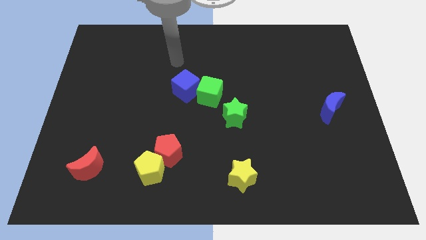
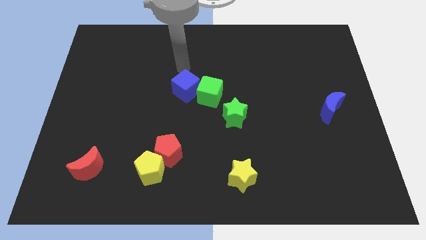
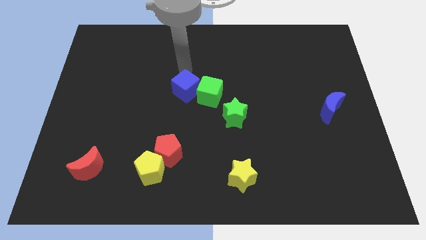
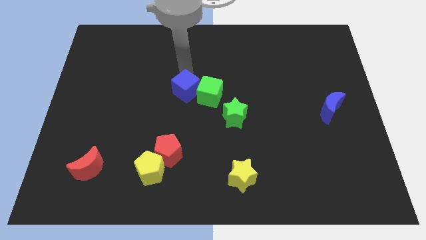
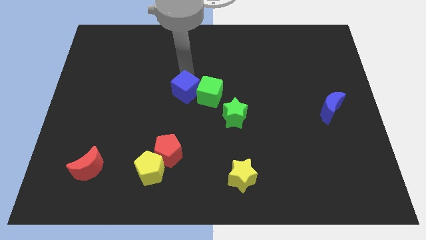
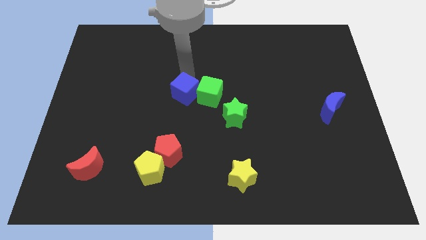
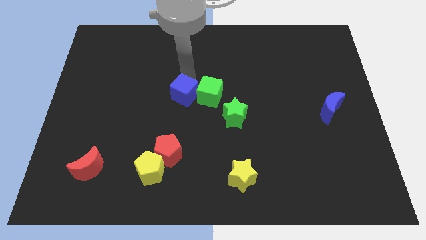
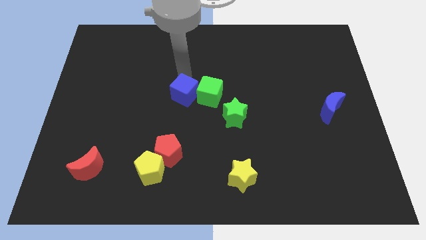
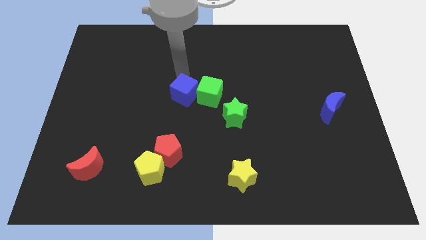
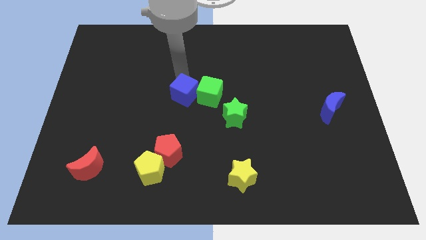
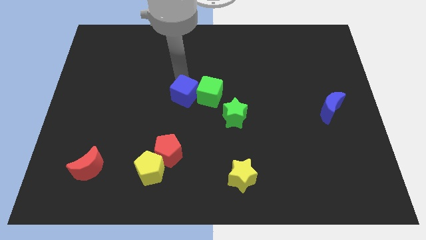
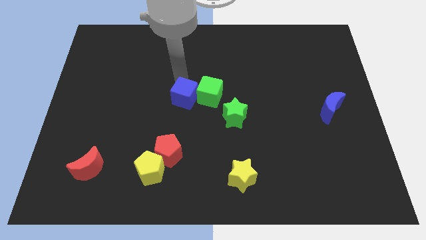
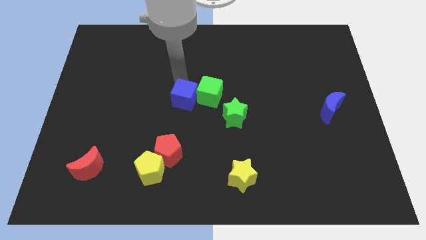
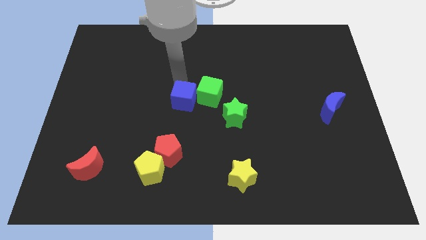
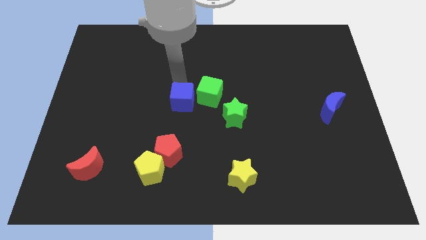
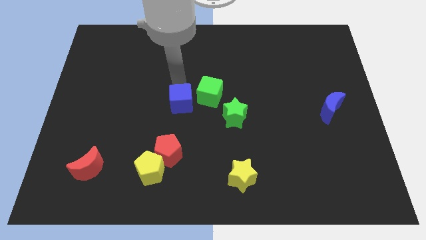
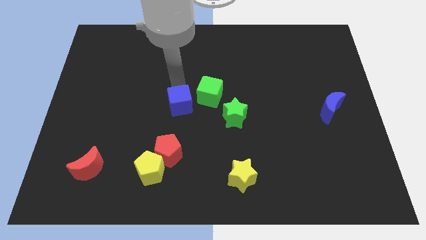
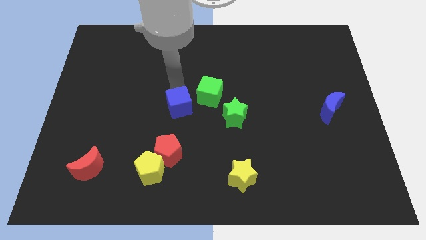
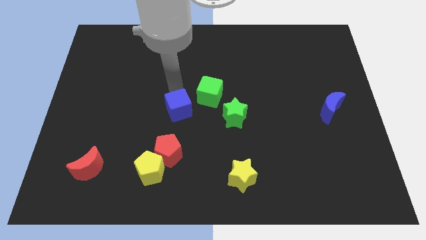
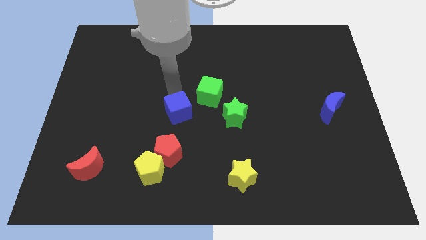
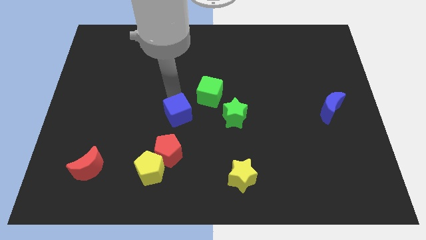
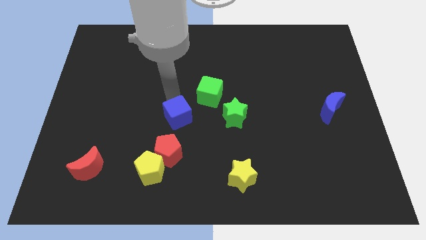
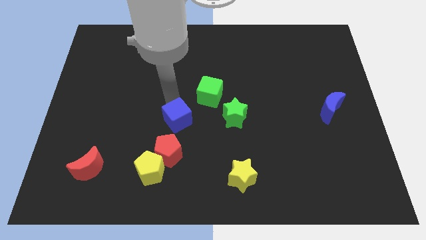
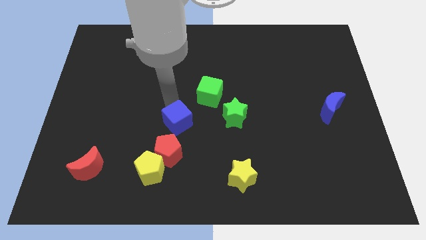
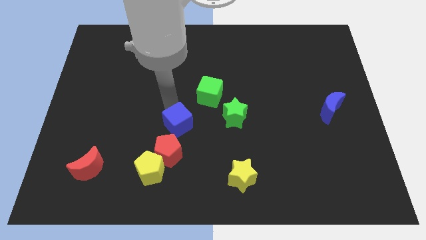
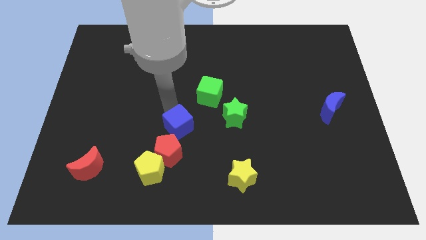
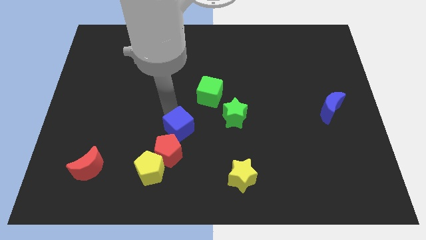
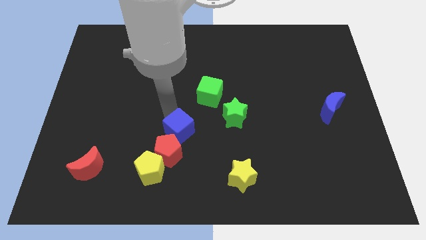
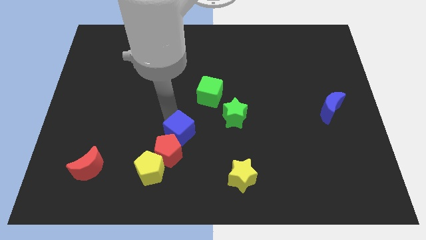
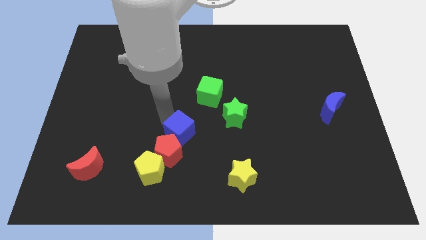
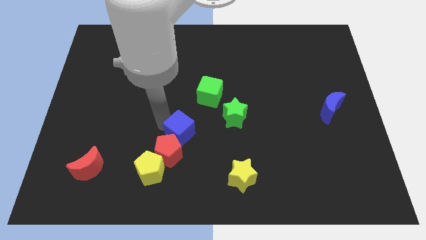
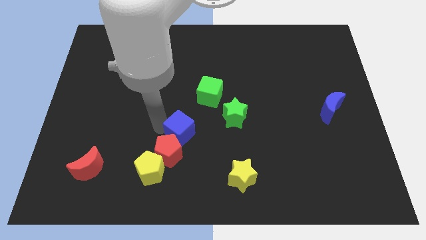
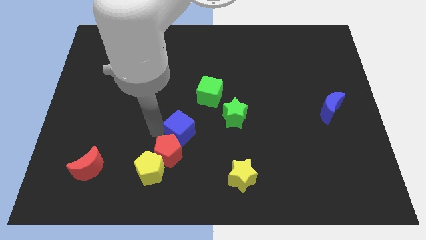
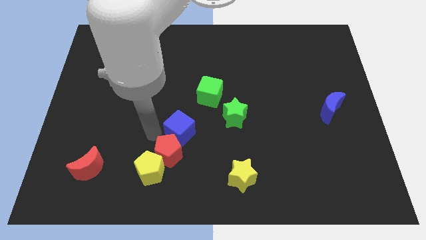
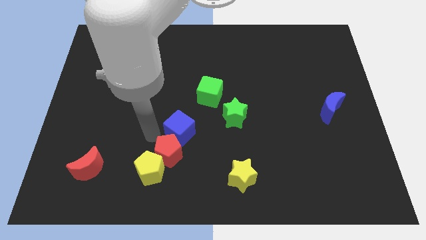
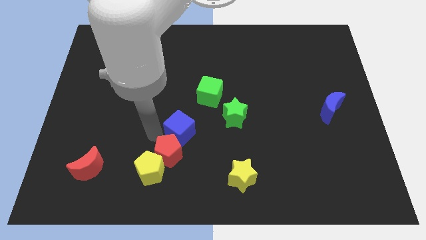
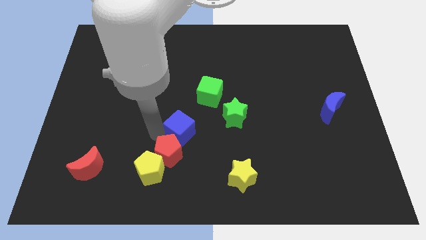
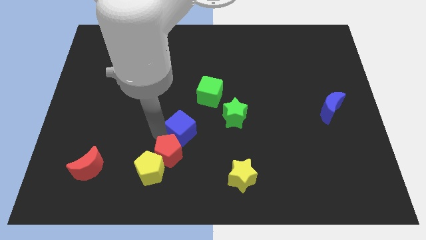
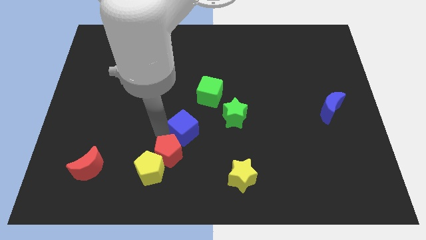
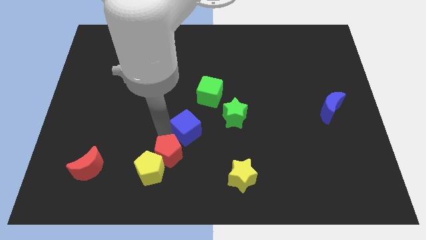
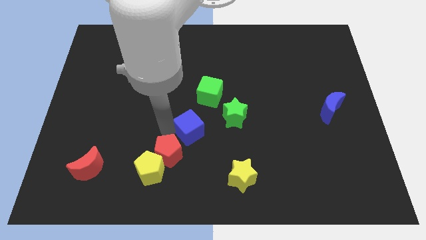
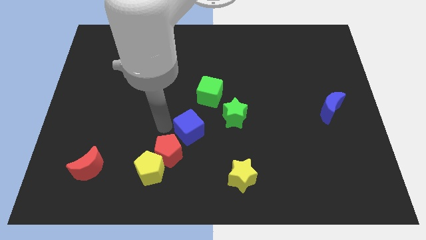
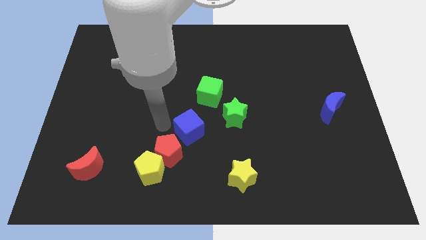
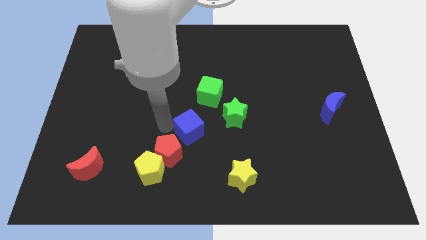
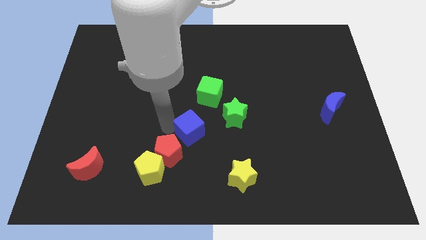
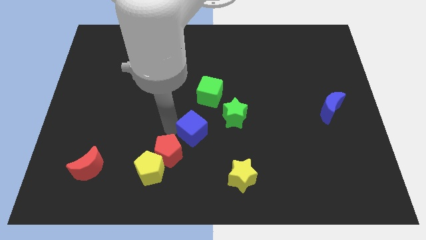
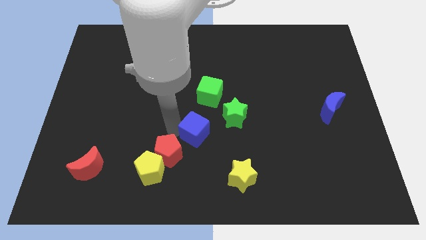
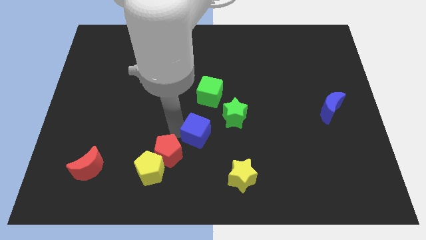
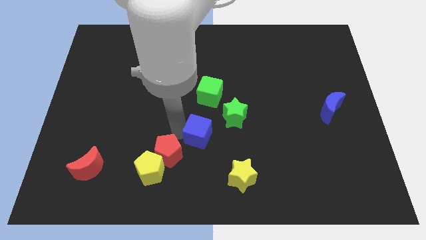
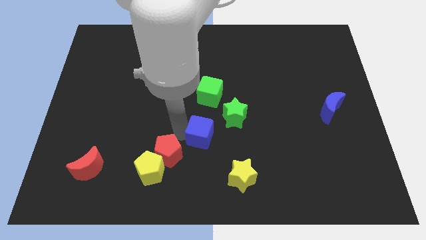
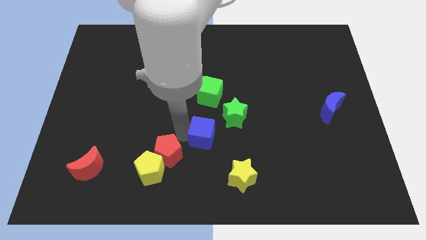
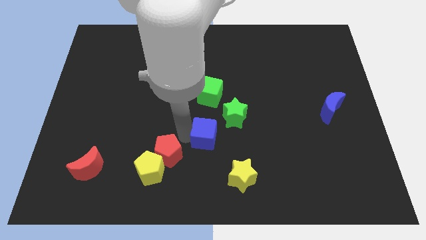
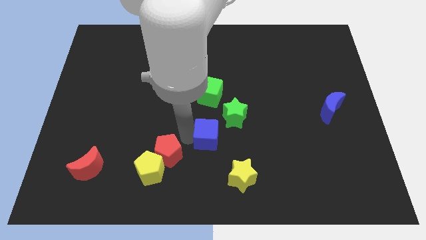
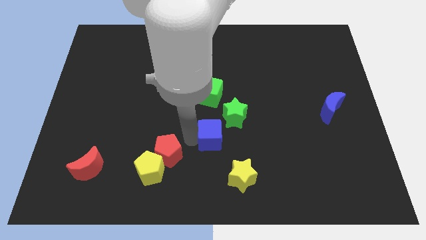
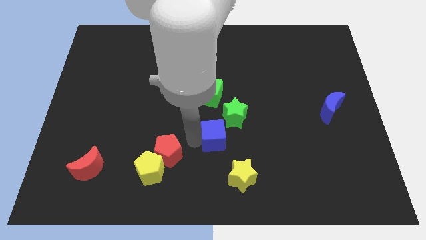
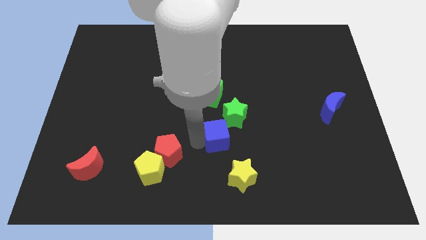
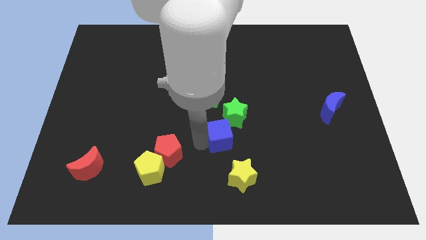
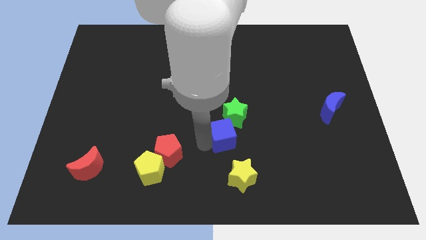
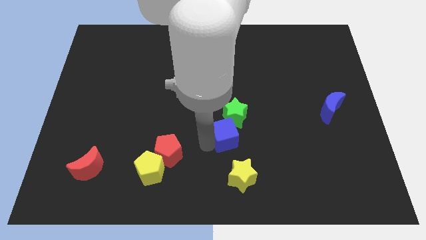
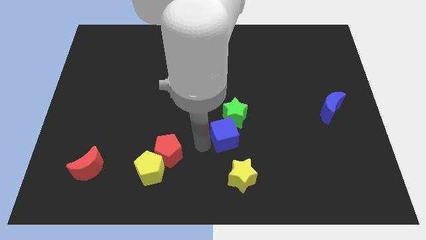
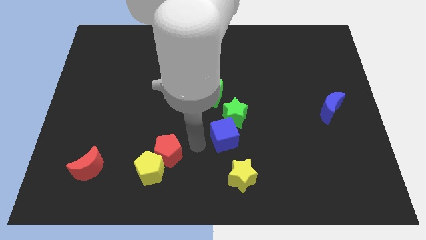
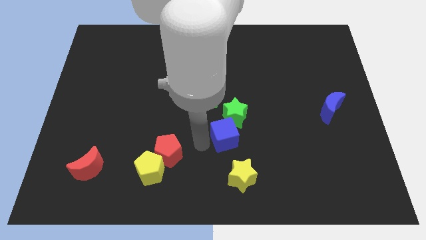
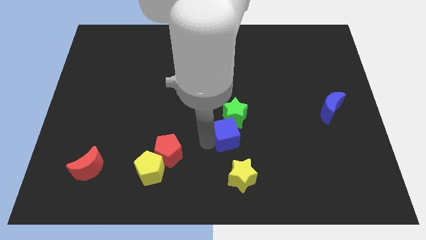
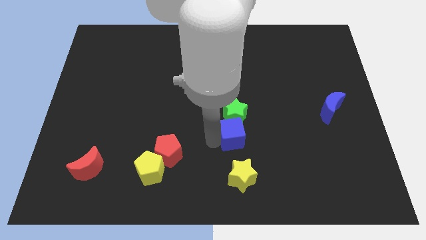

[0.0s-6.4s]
push the blue cube diagonally down and to the right of the green star

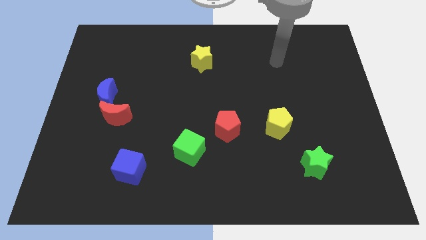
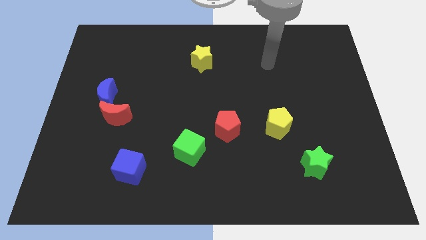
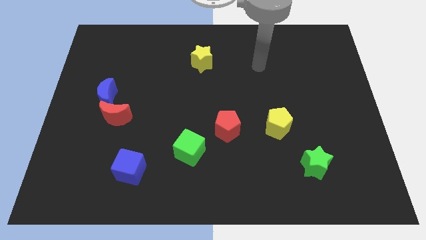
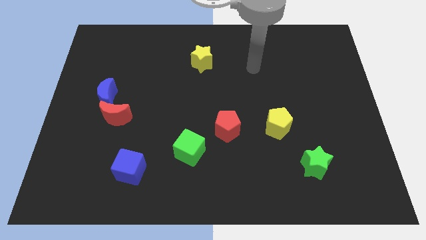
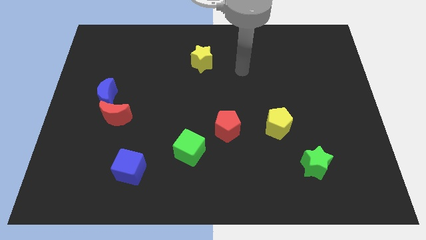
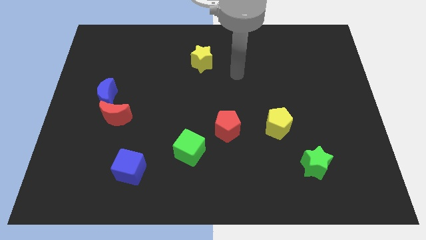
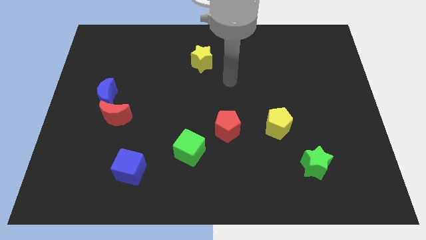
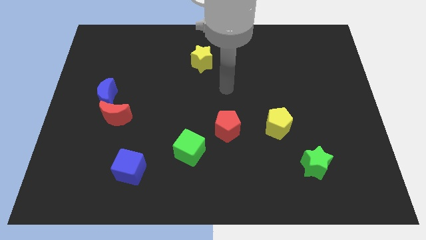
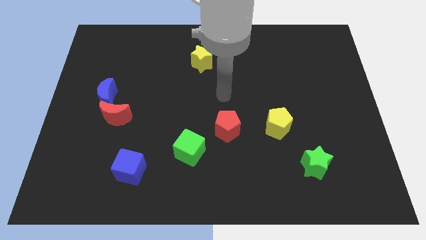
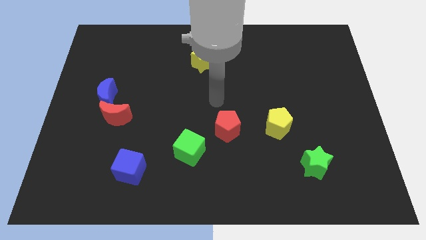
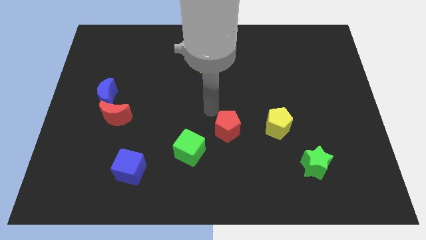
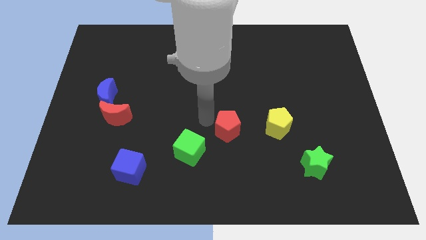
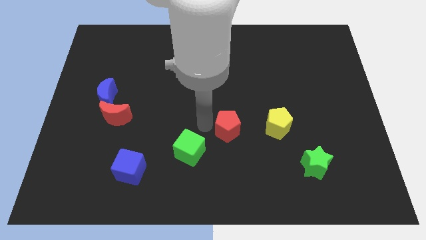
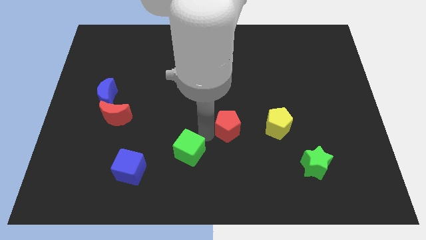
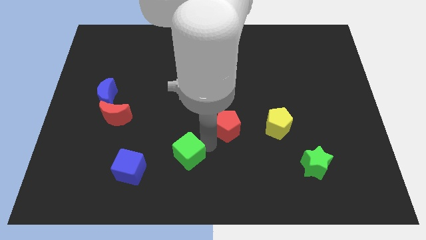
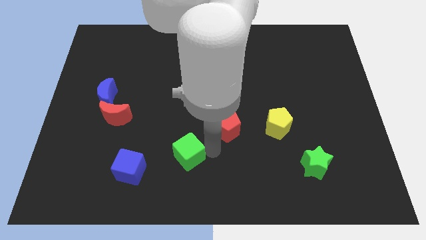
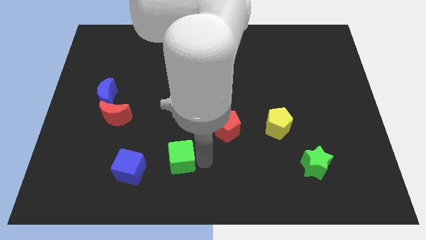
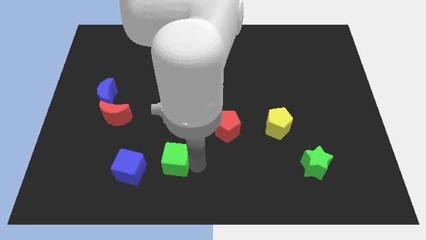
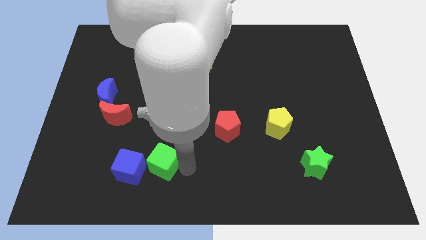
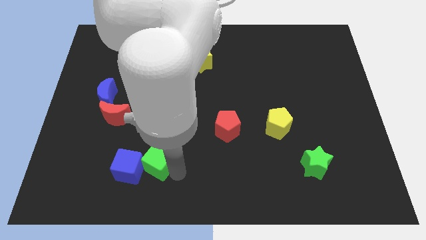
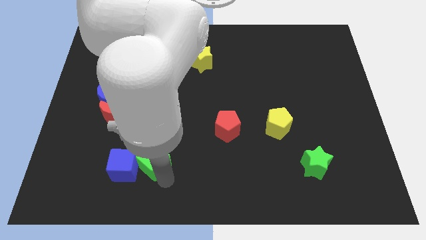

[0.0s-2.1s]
slide the blue cube below the red moon
